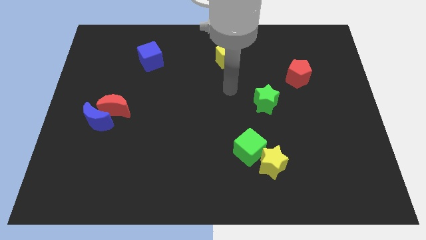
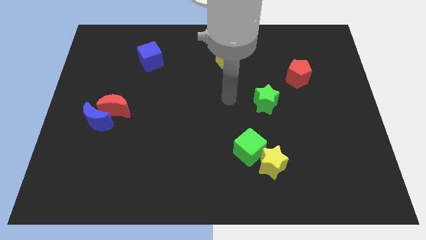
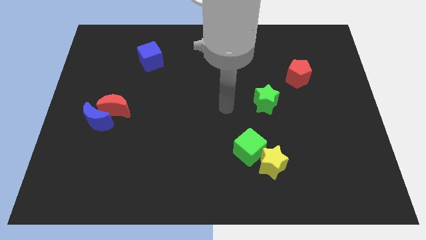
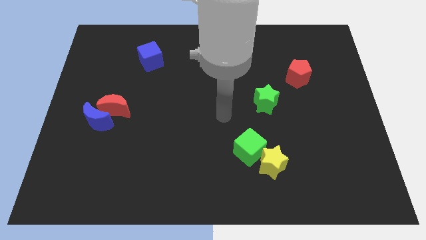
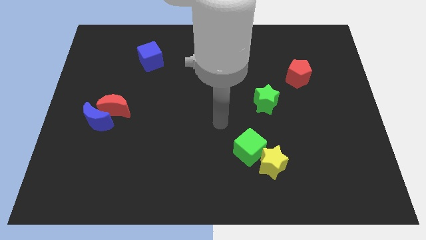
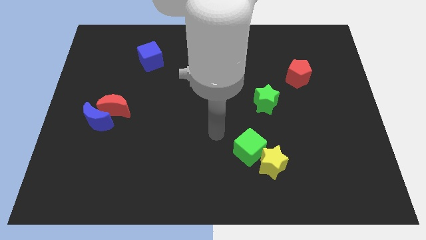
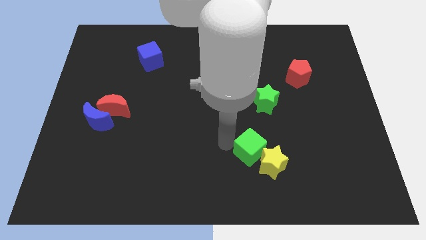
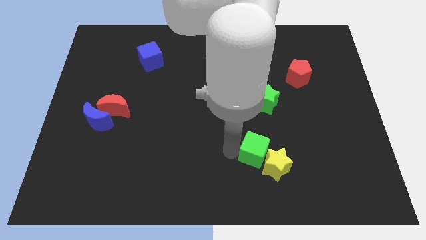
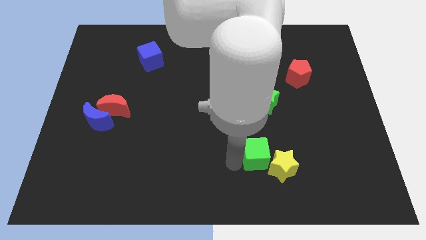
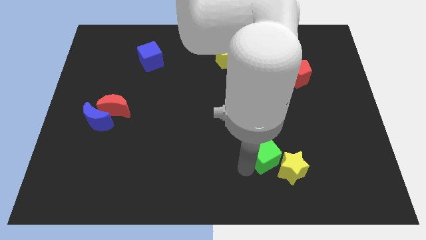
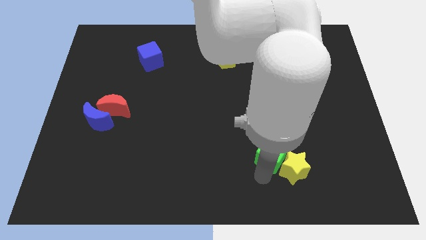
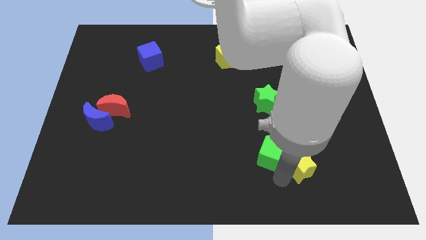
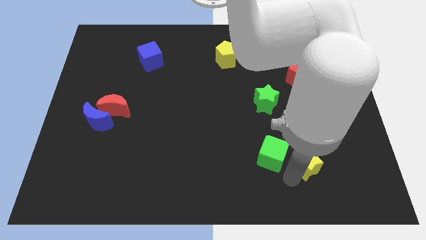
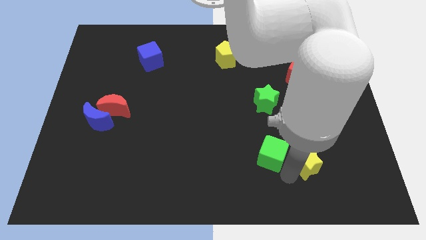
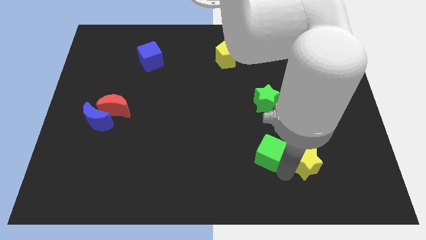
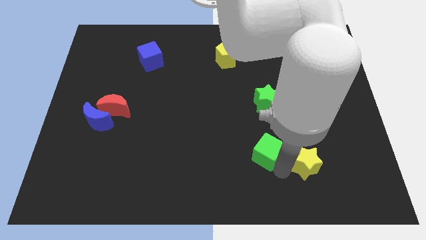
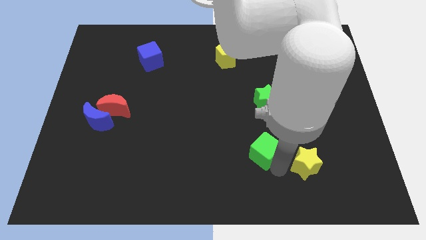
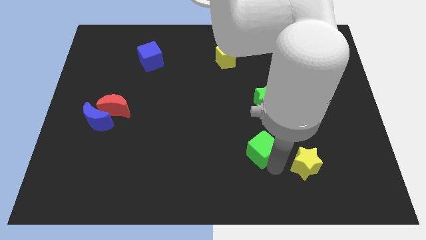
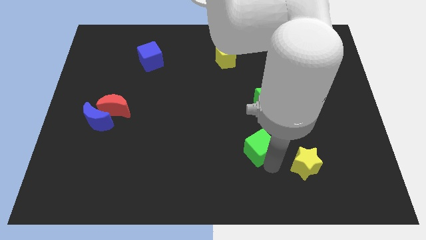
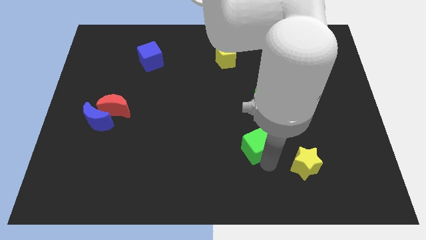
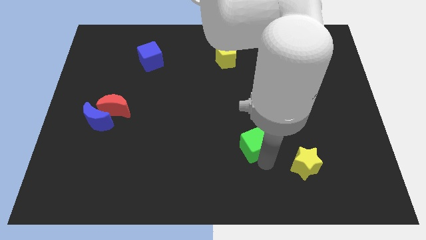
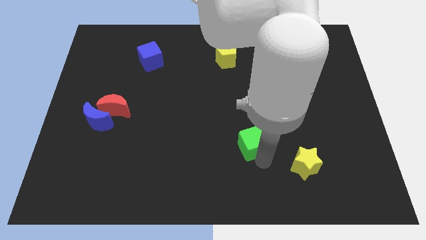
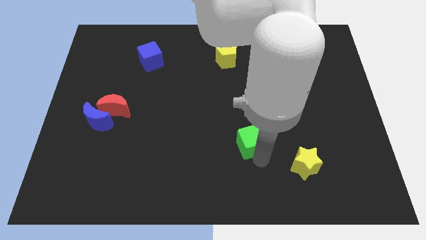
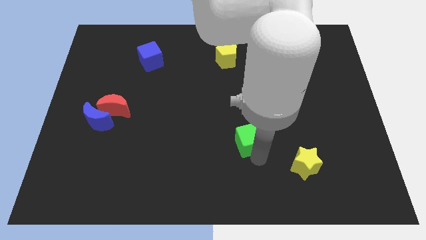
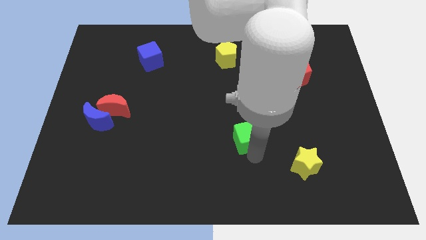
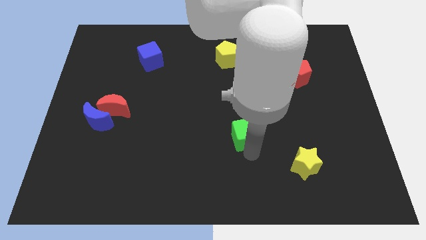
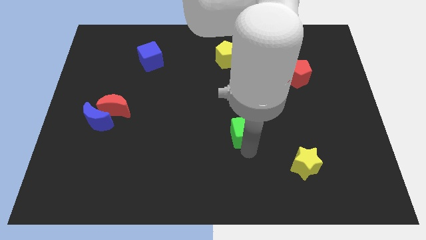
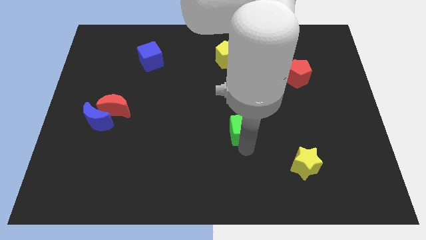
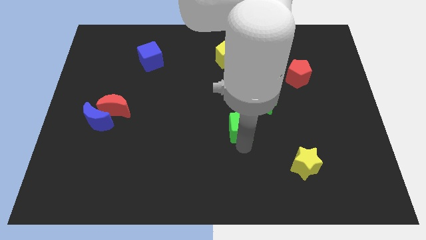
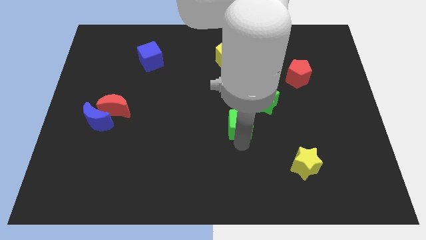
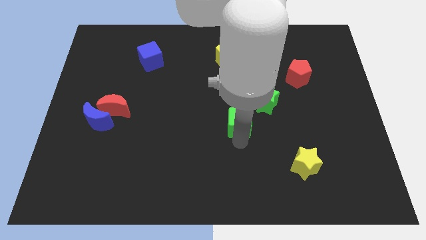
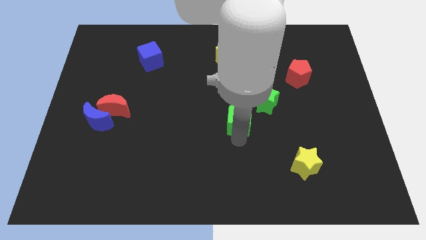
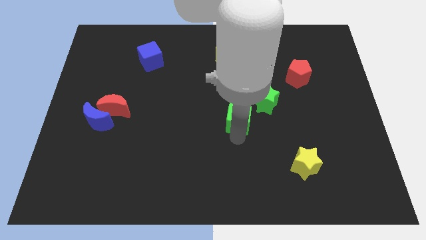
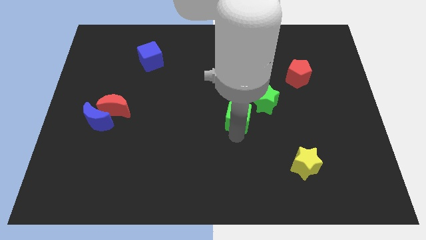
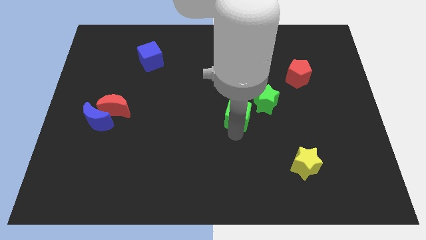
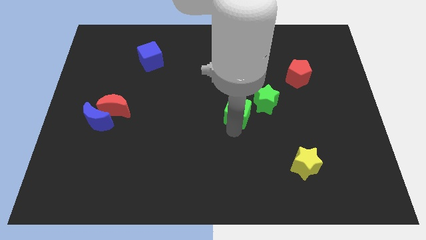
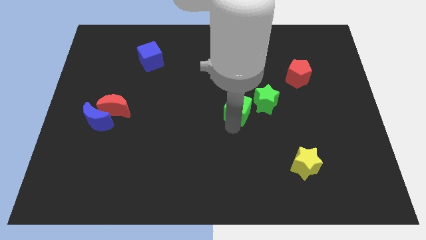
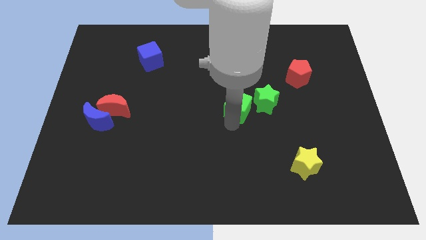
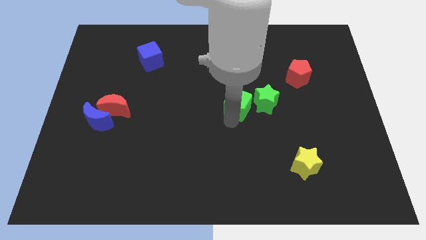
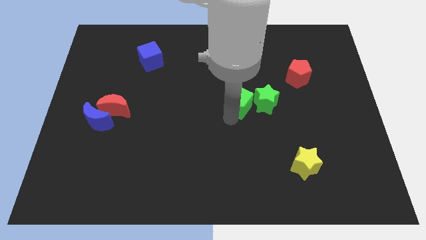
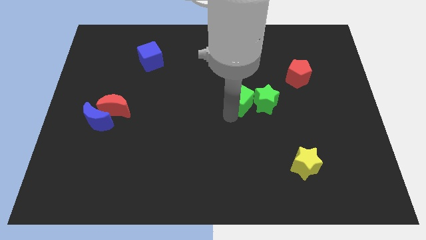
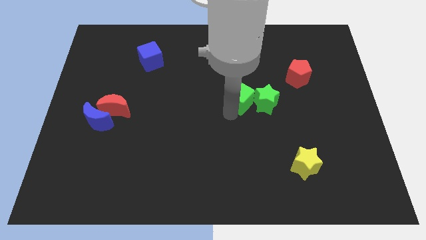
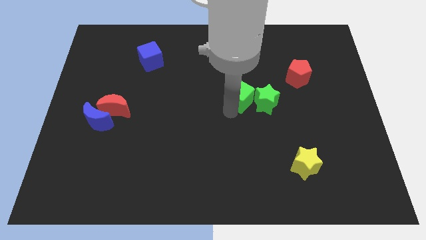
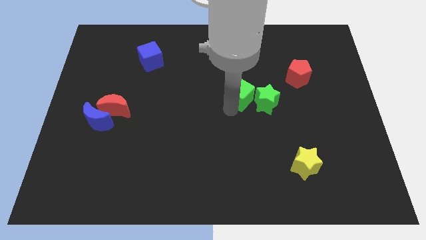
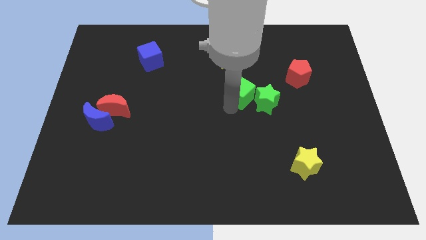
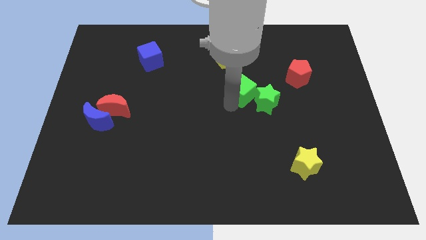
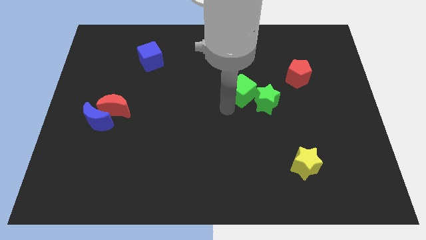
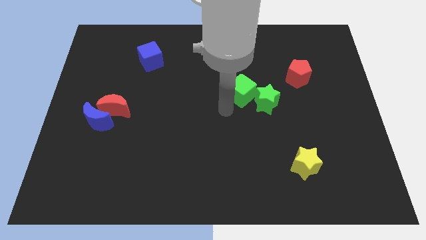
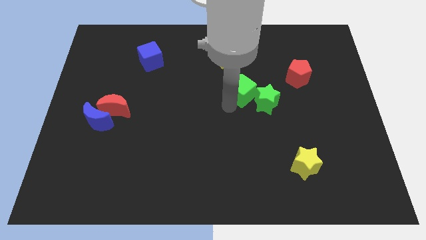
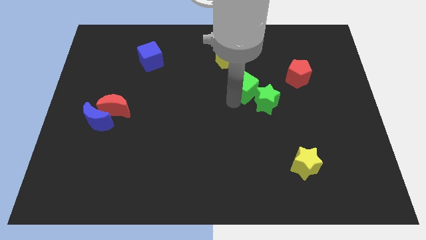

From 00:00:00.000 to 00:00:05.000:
slide the green cube to the left side of the red pentagon

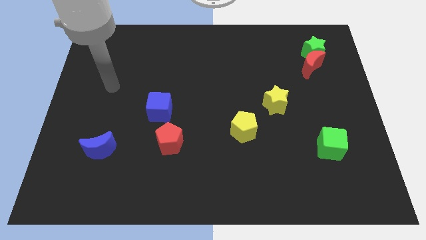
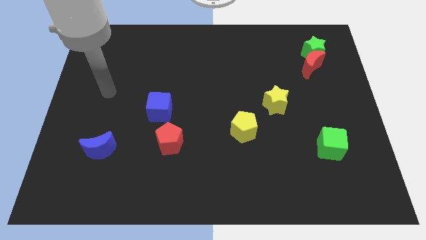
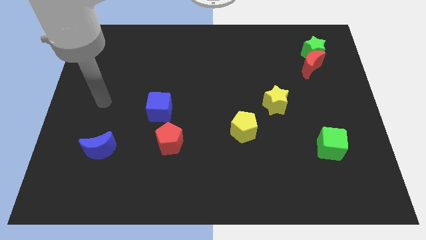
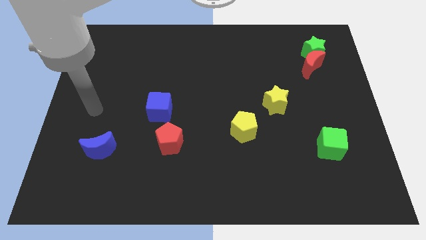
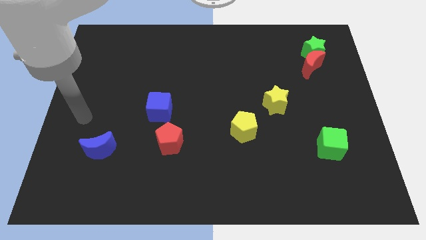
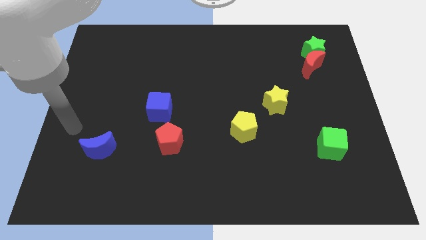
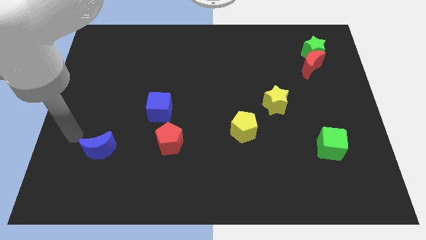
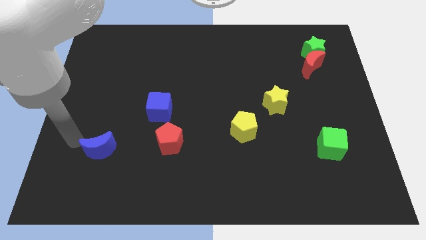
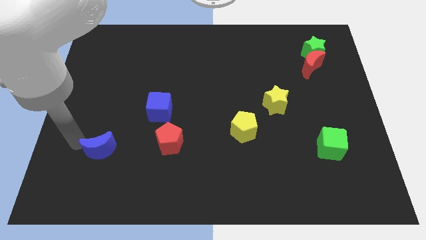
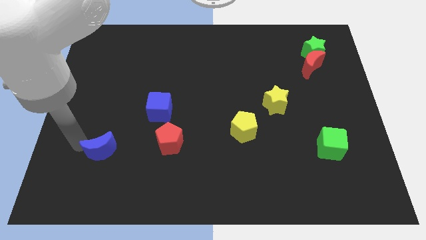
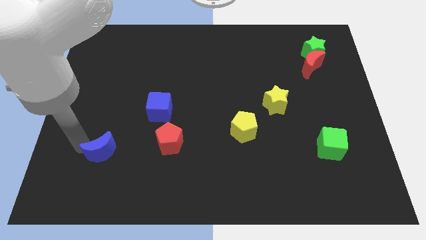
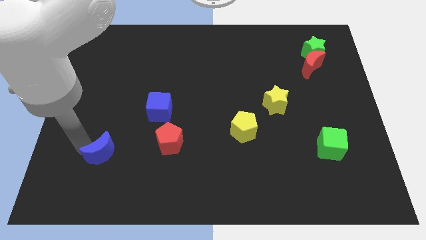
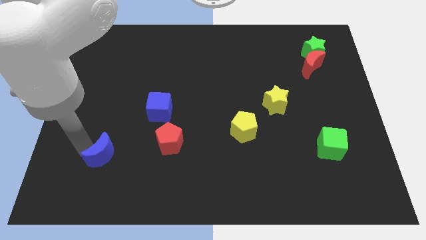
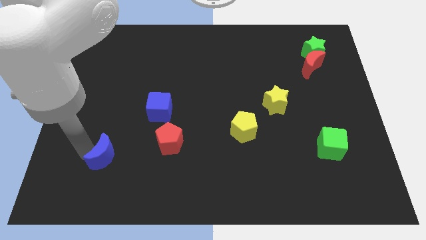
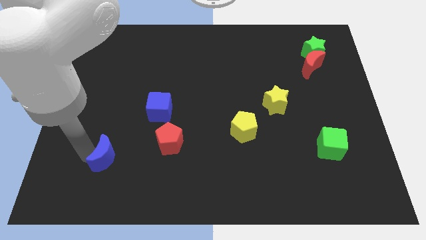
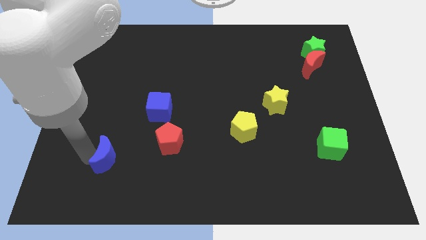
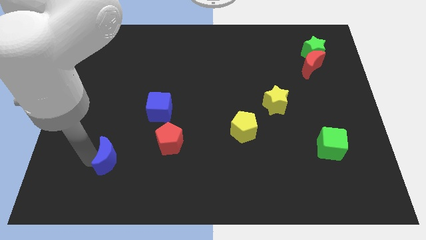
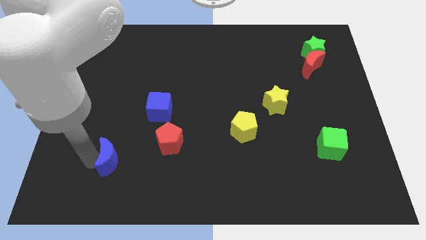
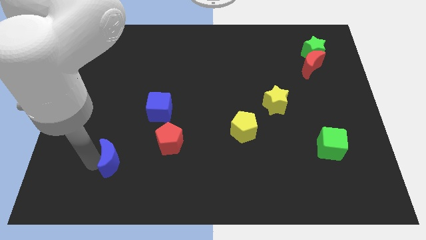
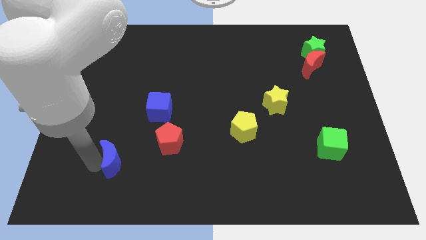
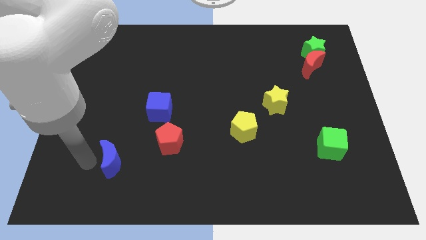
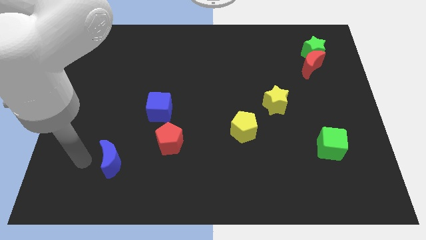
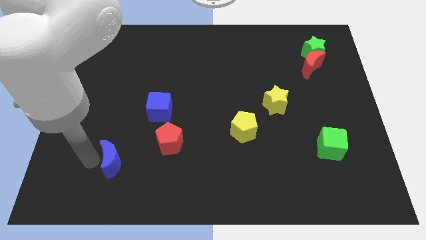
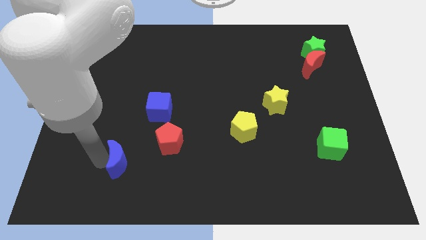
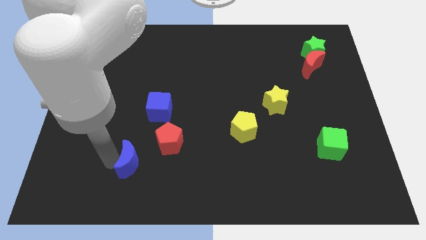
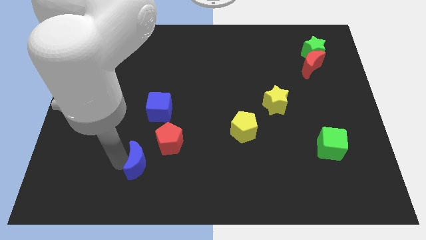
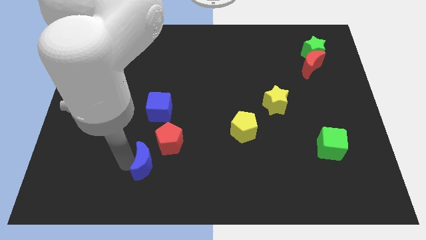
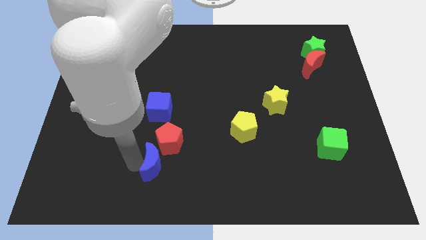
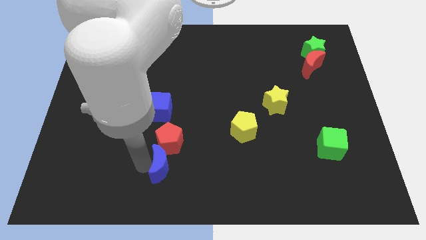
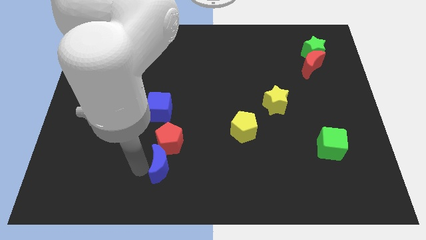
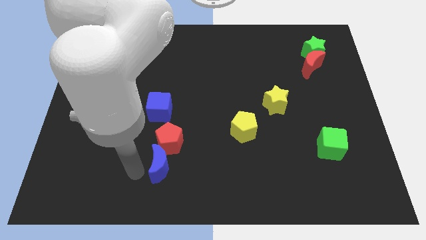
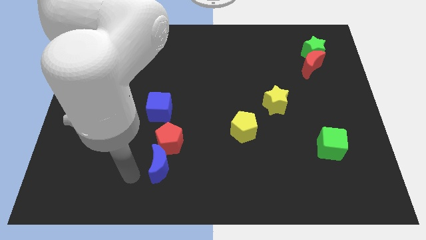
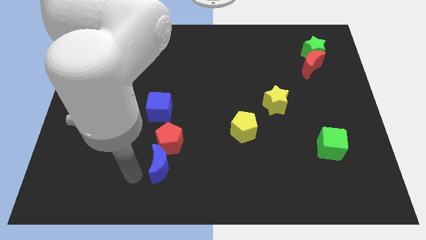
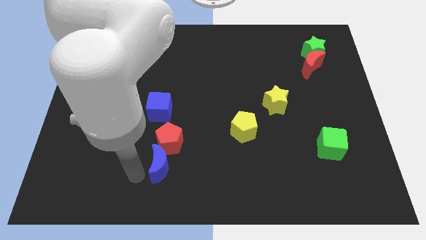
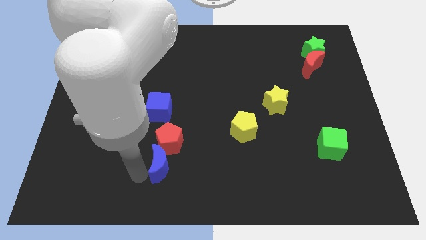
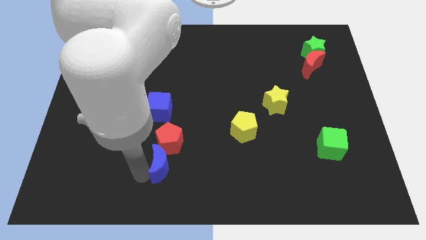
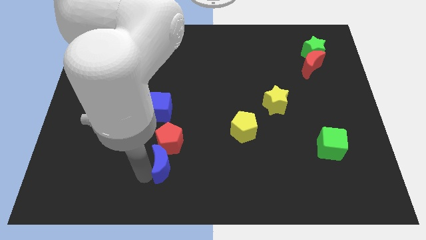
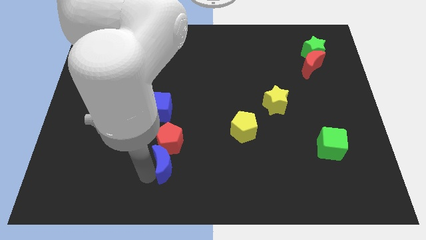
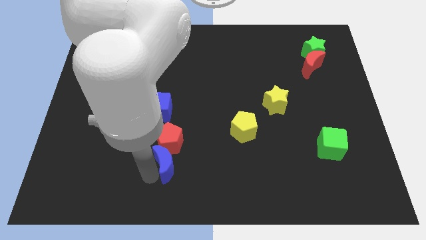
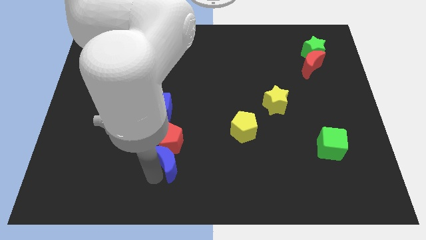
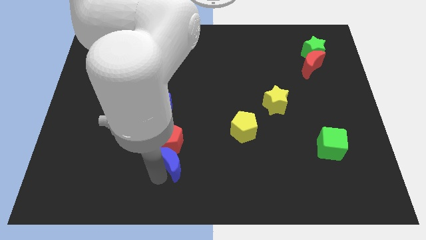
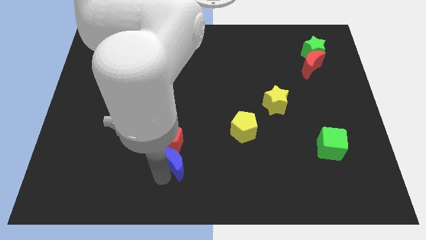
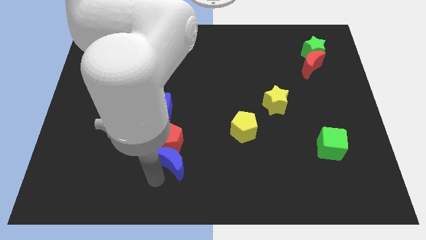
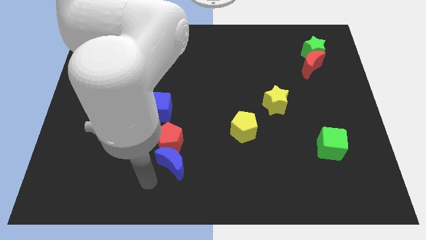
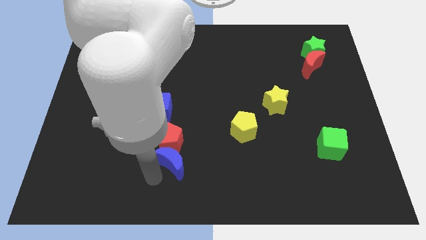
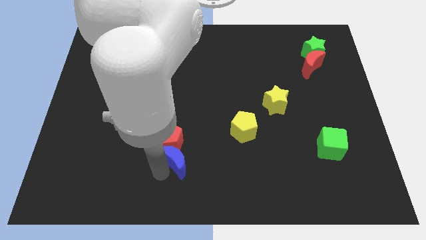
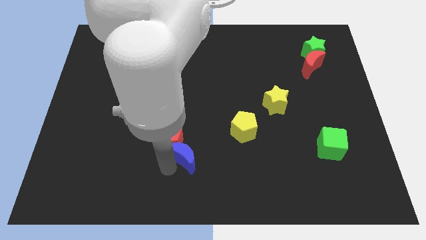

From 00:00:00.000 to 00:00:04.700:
slide the blue moon to the right of the red pentagon
